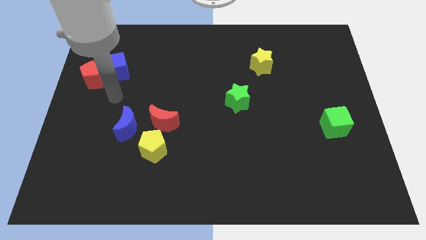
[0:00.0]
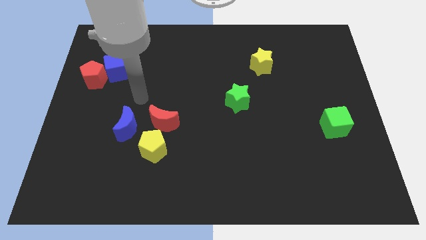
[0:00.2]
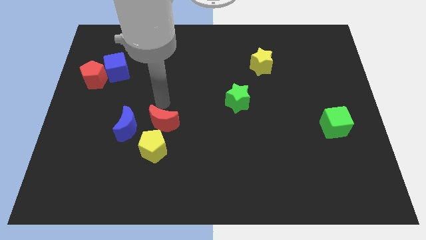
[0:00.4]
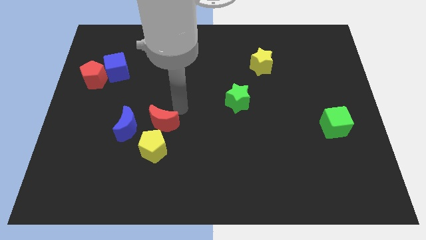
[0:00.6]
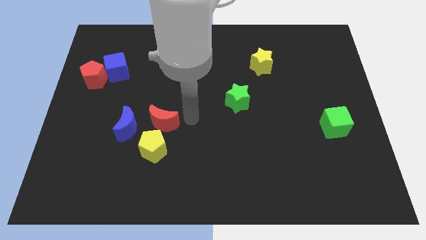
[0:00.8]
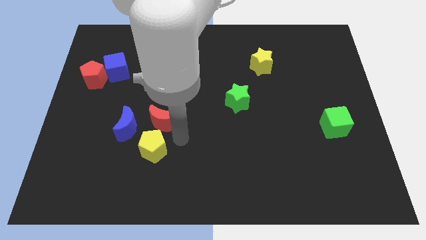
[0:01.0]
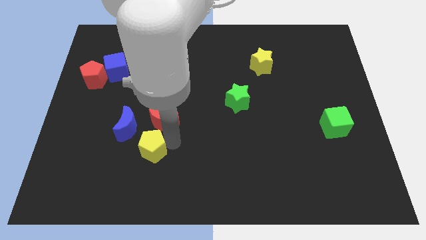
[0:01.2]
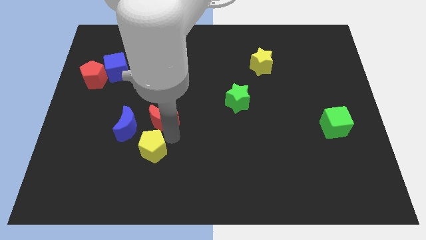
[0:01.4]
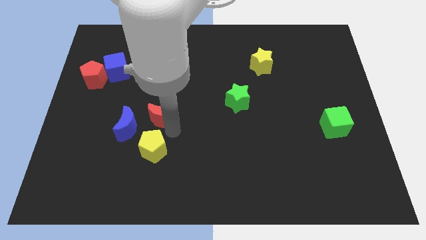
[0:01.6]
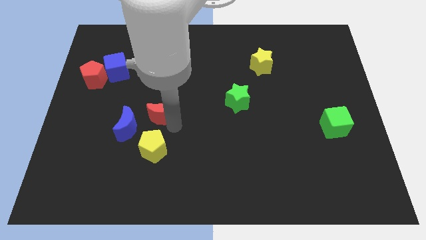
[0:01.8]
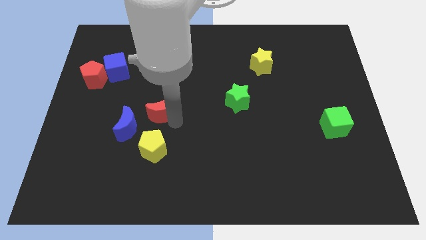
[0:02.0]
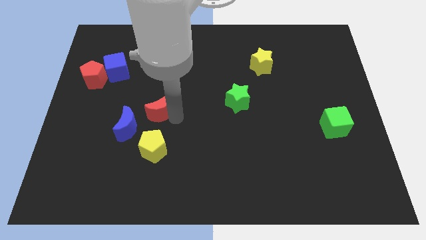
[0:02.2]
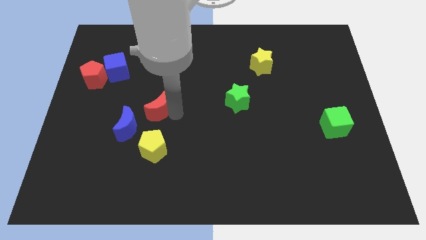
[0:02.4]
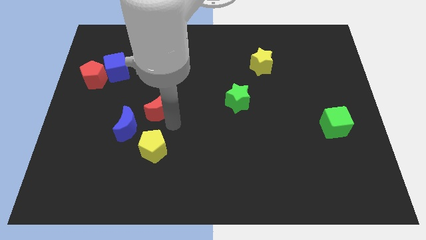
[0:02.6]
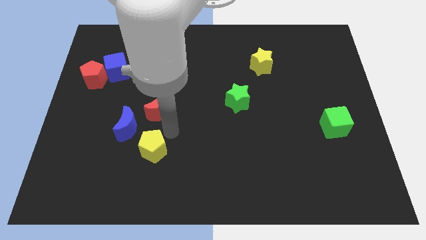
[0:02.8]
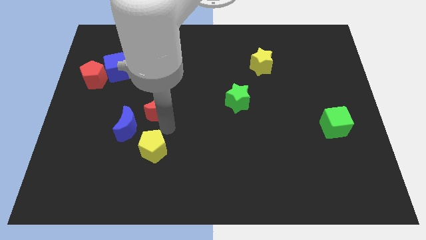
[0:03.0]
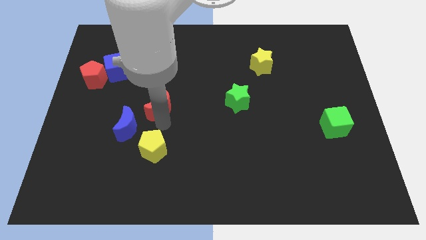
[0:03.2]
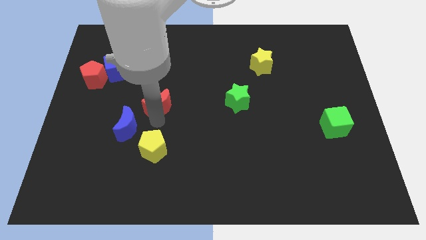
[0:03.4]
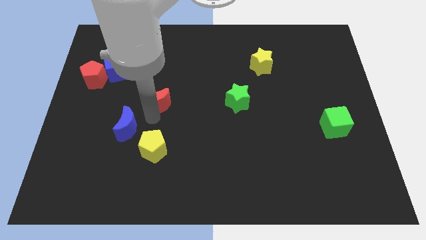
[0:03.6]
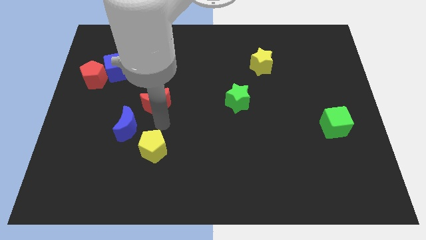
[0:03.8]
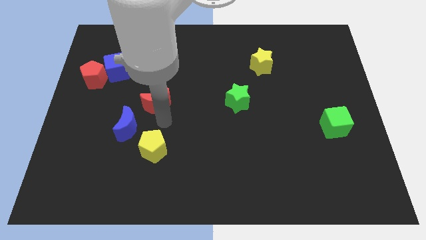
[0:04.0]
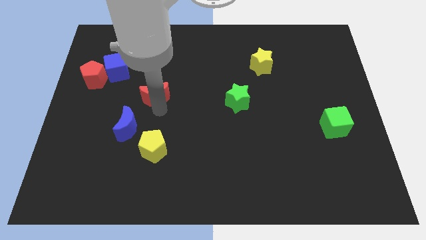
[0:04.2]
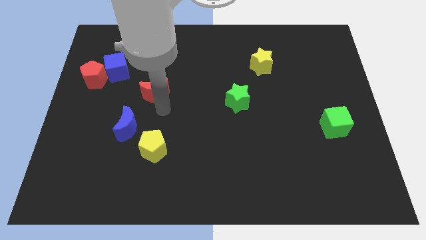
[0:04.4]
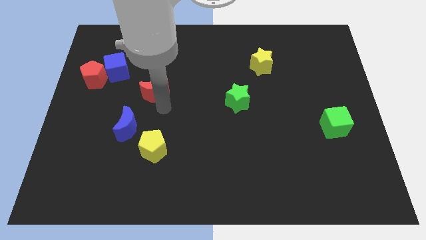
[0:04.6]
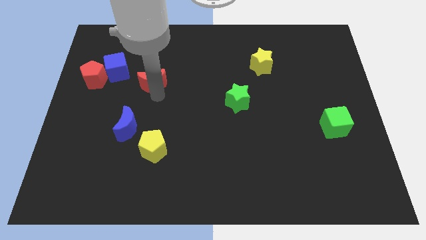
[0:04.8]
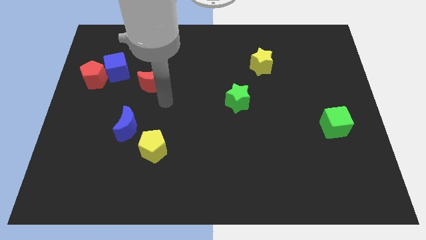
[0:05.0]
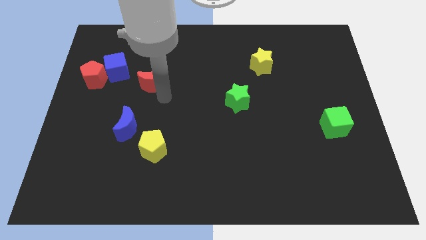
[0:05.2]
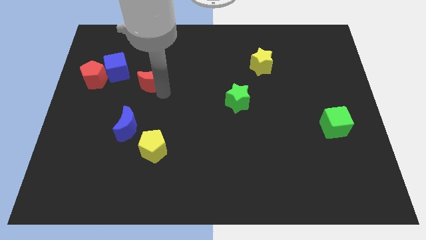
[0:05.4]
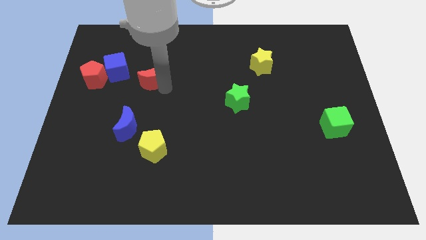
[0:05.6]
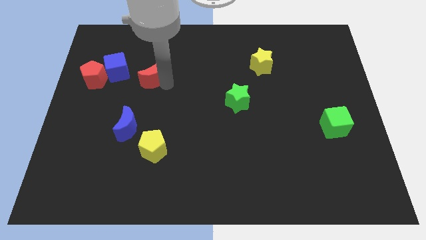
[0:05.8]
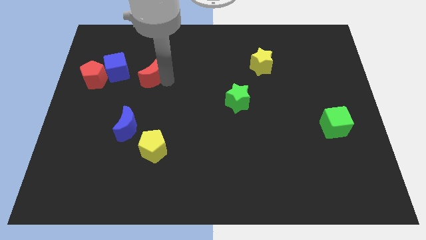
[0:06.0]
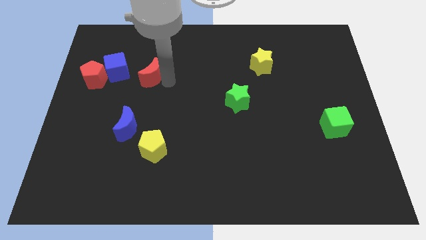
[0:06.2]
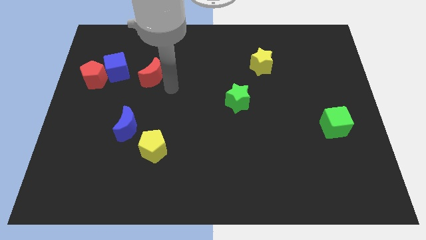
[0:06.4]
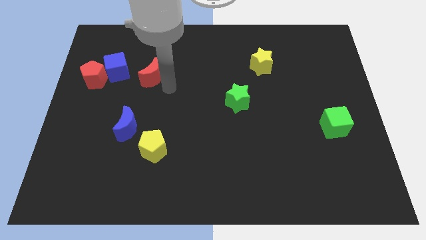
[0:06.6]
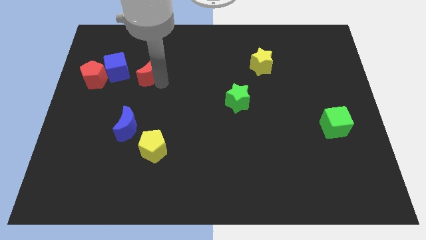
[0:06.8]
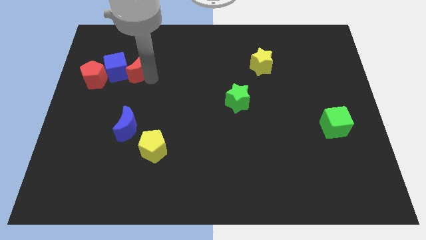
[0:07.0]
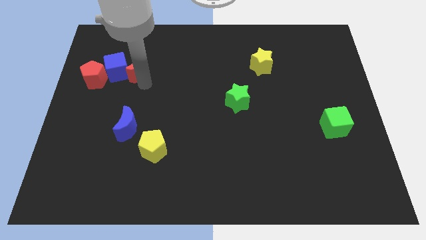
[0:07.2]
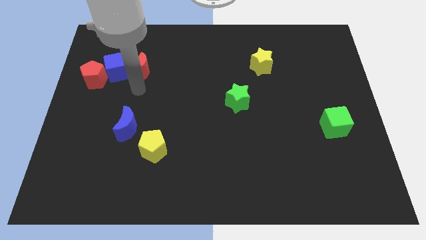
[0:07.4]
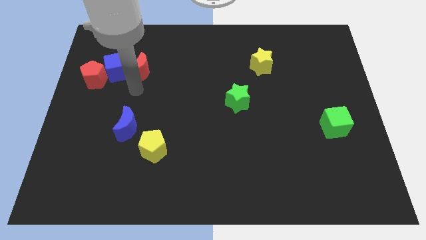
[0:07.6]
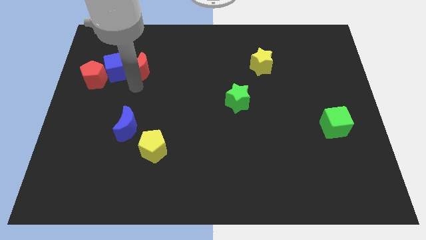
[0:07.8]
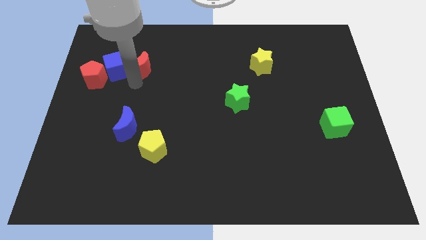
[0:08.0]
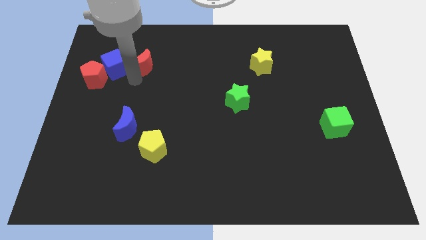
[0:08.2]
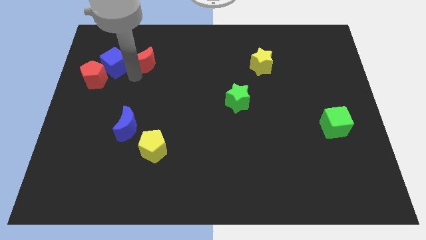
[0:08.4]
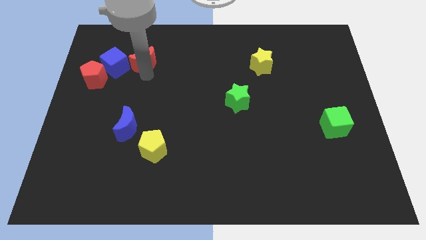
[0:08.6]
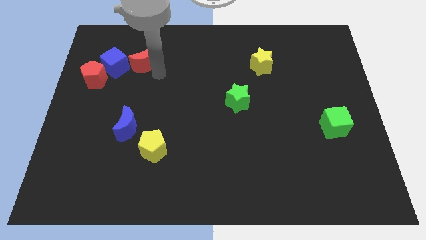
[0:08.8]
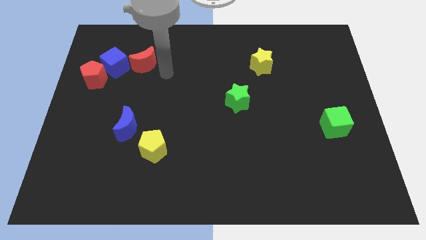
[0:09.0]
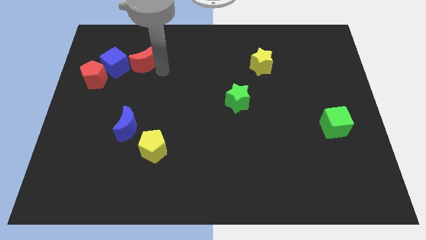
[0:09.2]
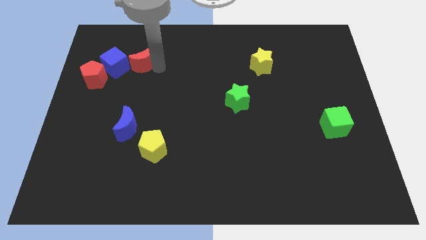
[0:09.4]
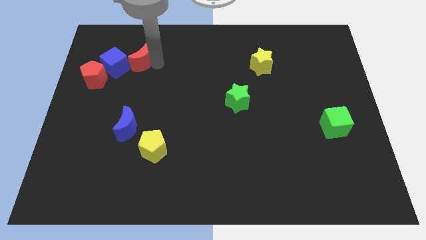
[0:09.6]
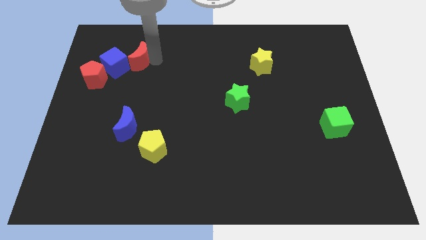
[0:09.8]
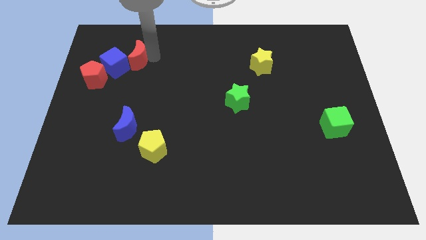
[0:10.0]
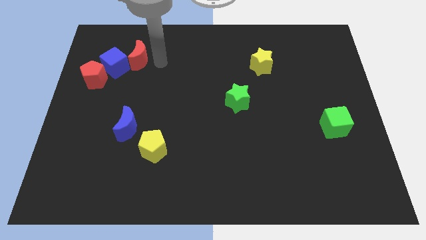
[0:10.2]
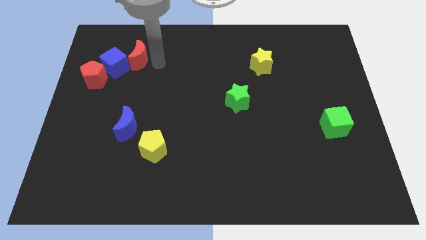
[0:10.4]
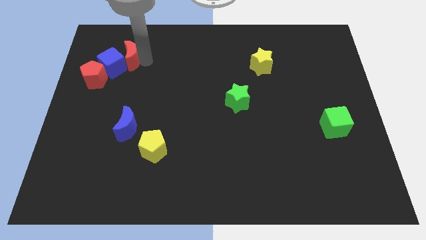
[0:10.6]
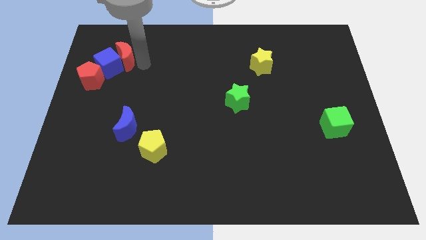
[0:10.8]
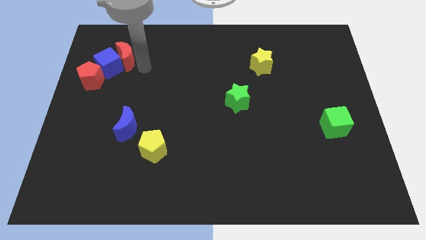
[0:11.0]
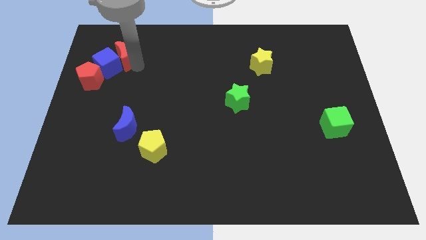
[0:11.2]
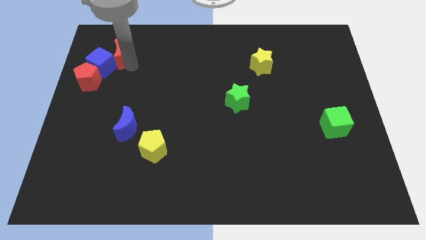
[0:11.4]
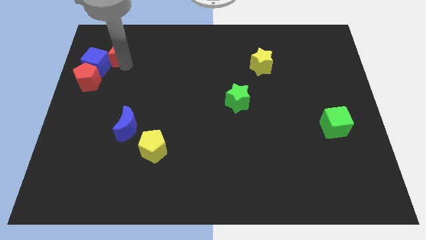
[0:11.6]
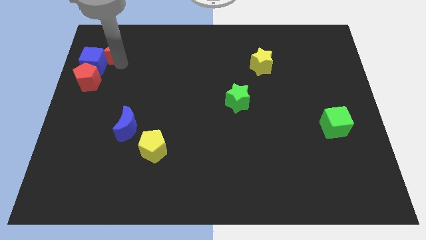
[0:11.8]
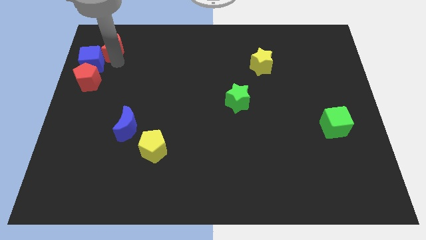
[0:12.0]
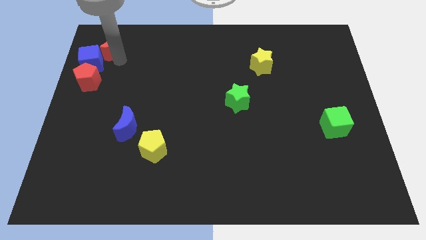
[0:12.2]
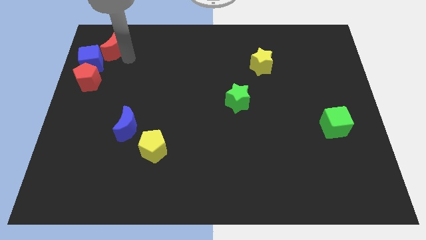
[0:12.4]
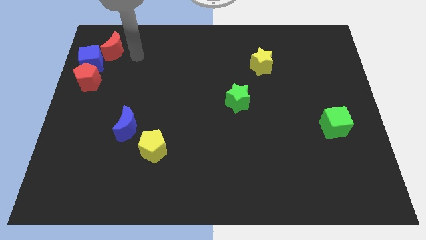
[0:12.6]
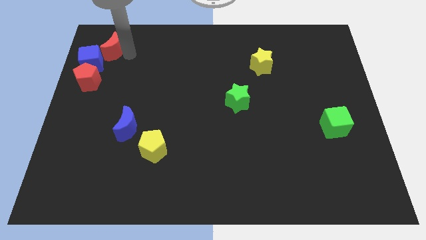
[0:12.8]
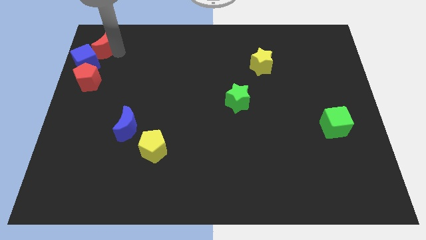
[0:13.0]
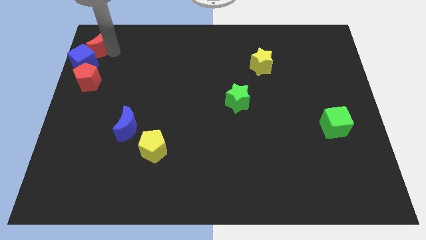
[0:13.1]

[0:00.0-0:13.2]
move the red moon to the top left
